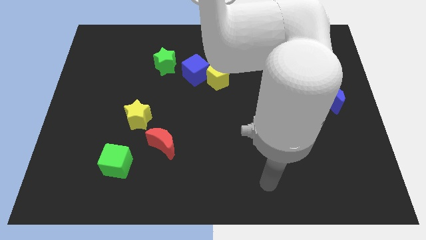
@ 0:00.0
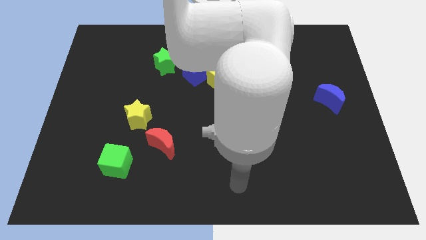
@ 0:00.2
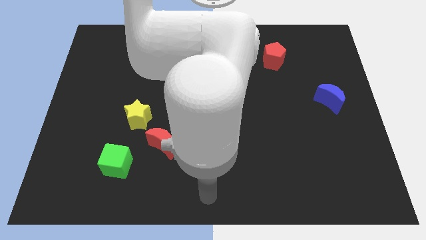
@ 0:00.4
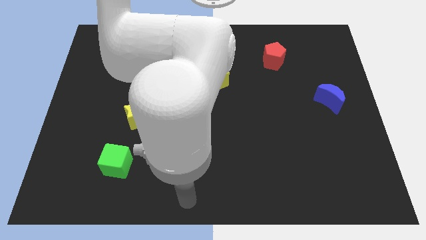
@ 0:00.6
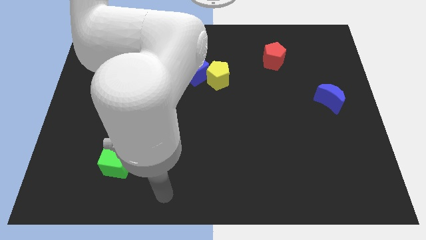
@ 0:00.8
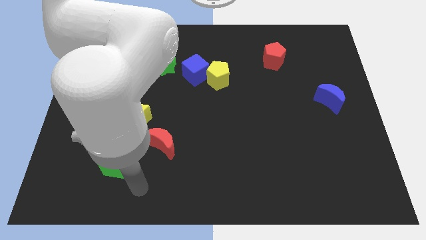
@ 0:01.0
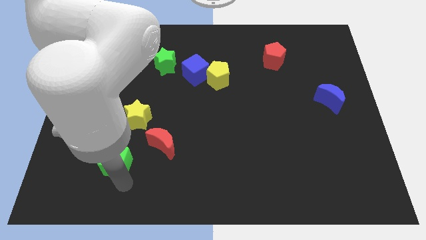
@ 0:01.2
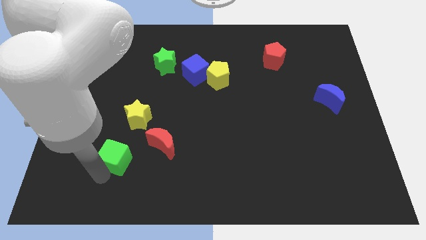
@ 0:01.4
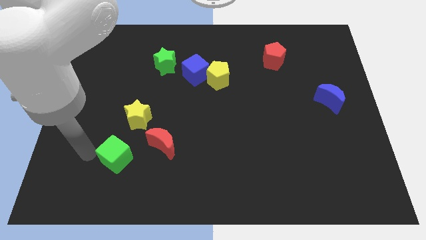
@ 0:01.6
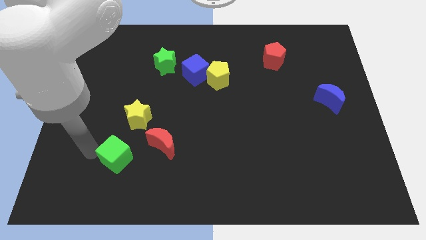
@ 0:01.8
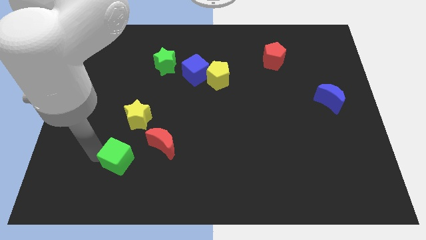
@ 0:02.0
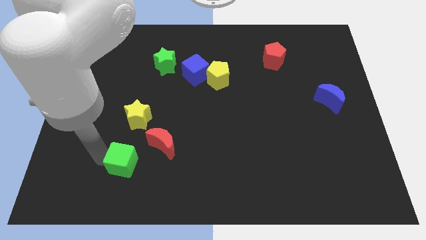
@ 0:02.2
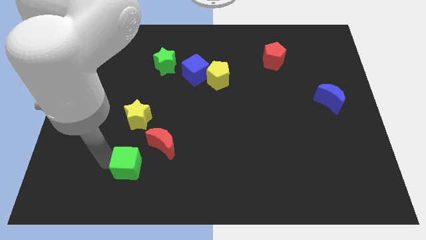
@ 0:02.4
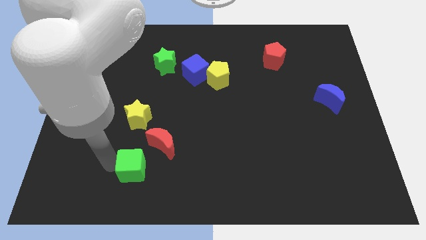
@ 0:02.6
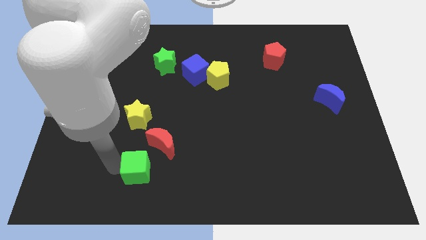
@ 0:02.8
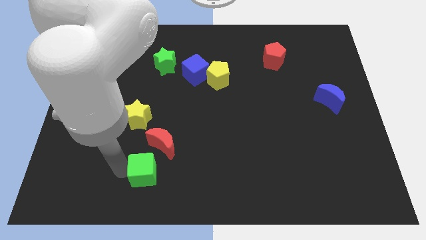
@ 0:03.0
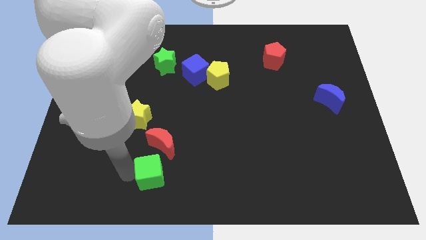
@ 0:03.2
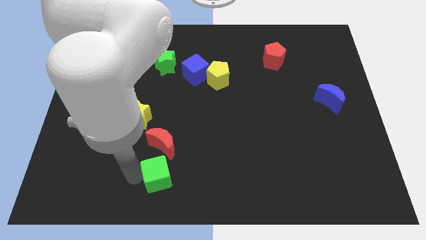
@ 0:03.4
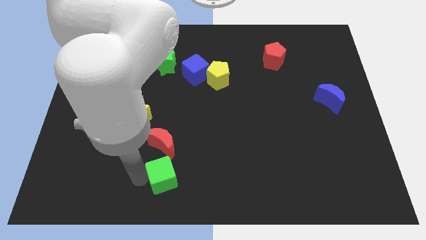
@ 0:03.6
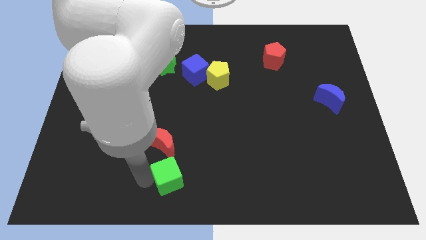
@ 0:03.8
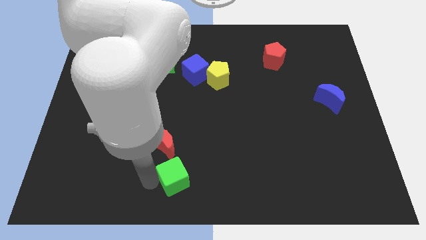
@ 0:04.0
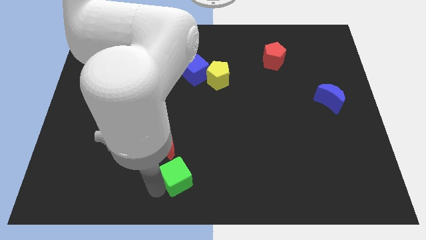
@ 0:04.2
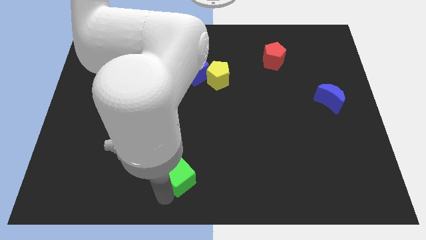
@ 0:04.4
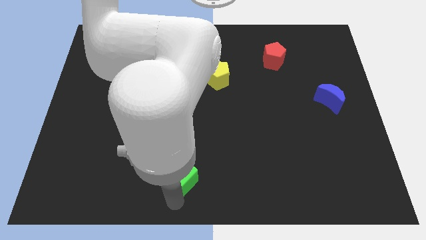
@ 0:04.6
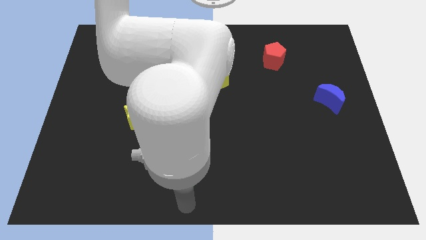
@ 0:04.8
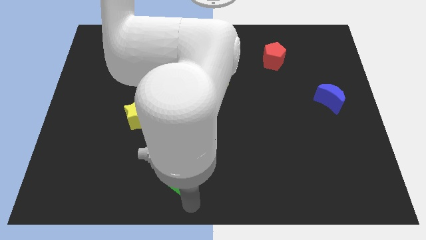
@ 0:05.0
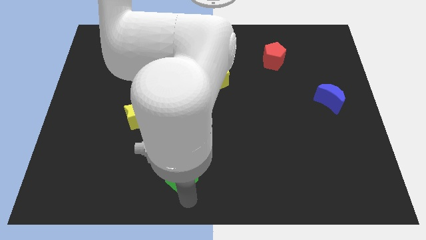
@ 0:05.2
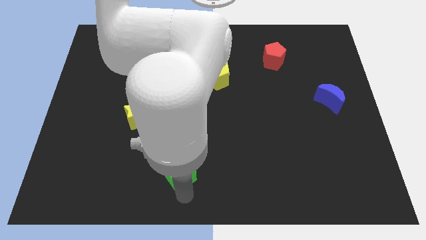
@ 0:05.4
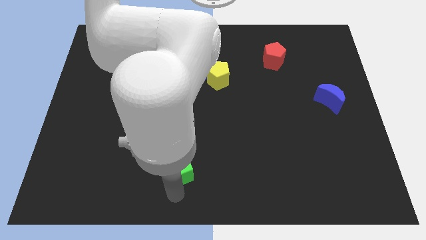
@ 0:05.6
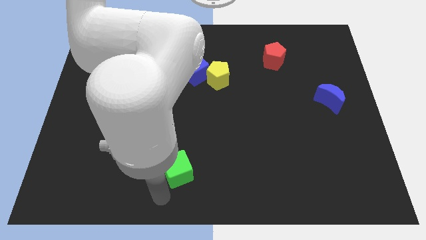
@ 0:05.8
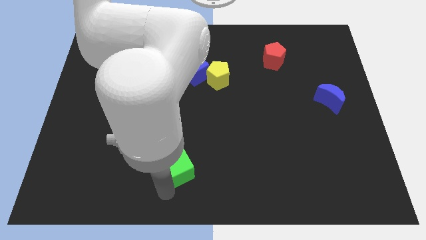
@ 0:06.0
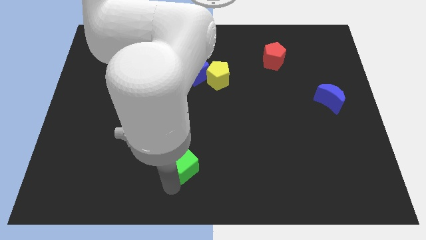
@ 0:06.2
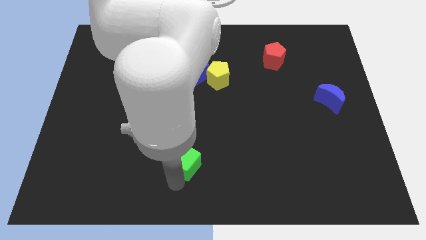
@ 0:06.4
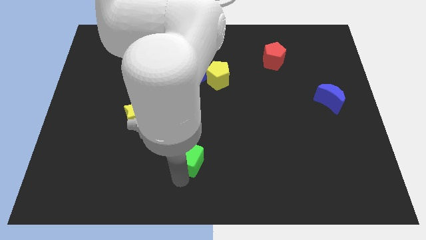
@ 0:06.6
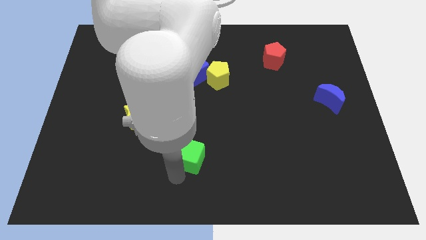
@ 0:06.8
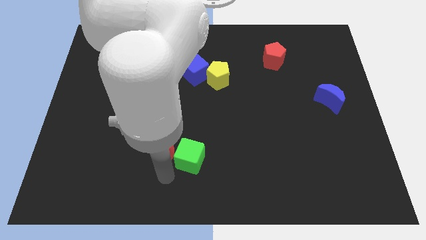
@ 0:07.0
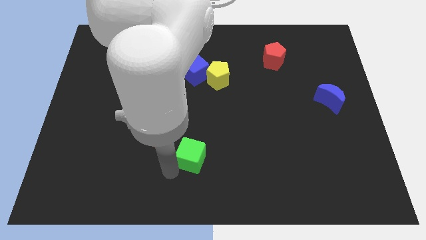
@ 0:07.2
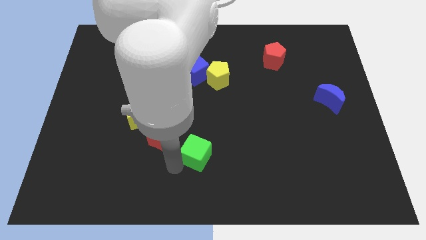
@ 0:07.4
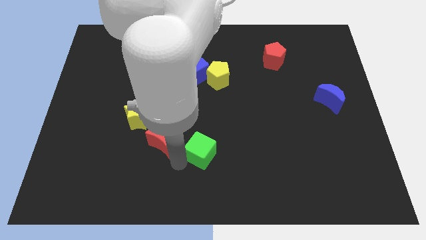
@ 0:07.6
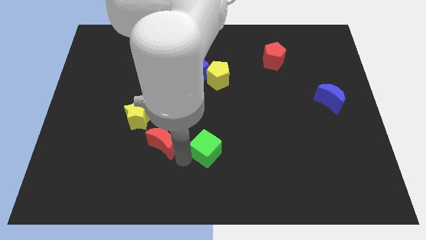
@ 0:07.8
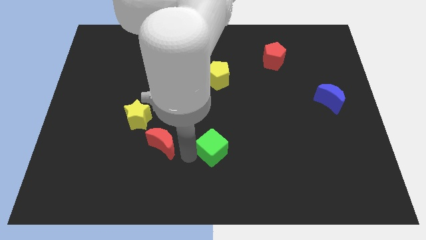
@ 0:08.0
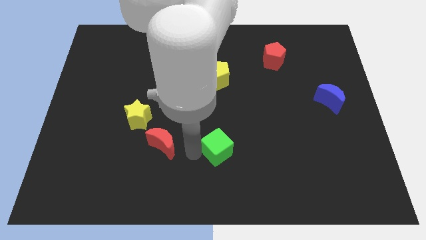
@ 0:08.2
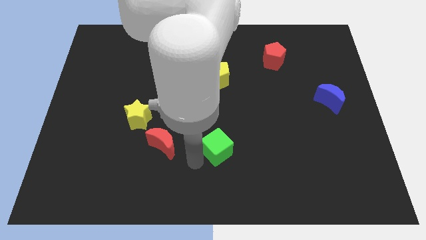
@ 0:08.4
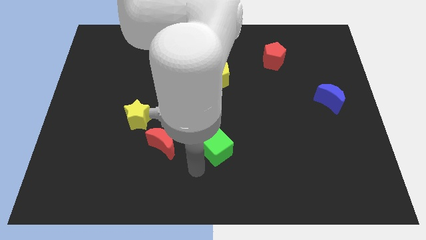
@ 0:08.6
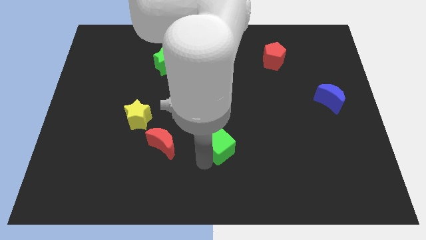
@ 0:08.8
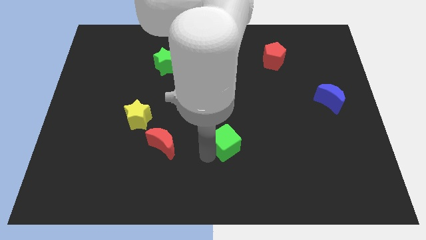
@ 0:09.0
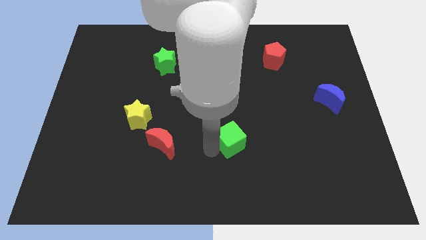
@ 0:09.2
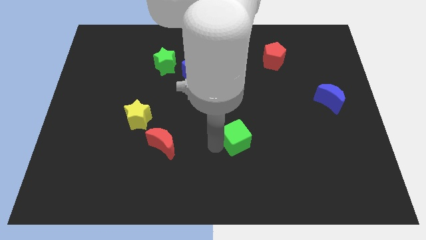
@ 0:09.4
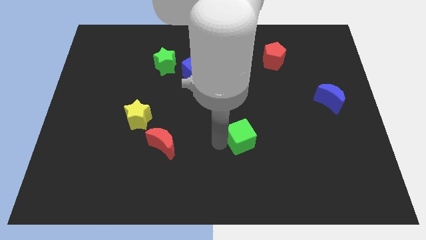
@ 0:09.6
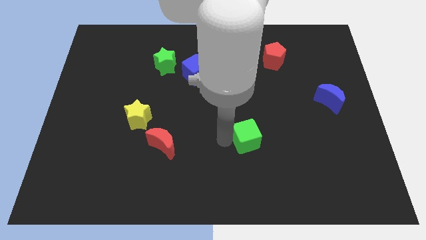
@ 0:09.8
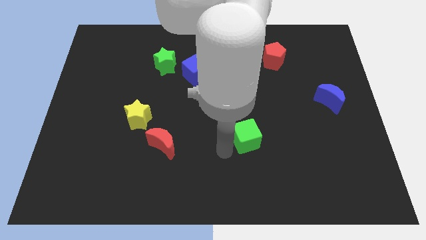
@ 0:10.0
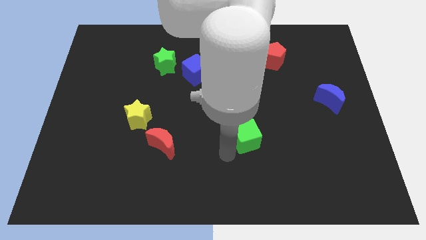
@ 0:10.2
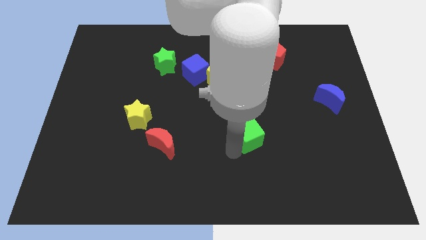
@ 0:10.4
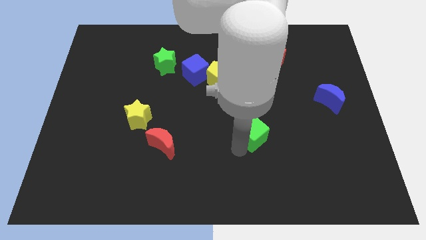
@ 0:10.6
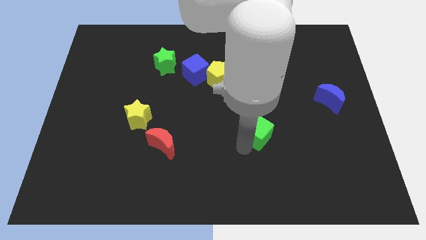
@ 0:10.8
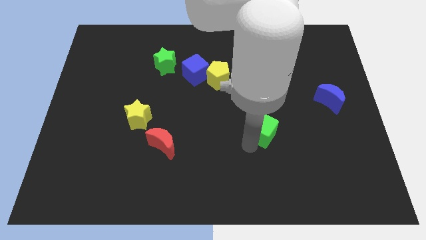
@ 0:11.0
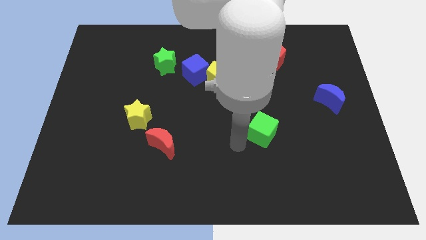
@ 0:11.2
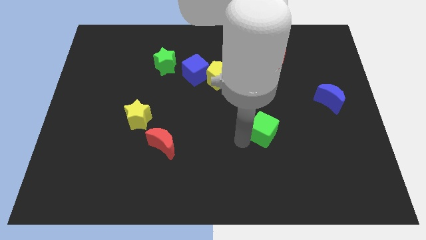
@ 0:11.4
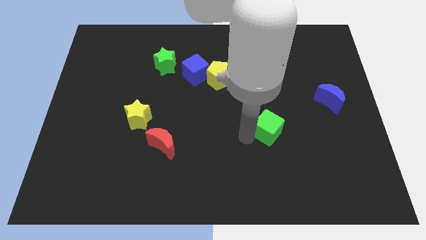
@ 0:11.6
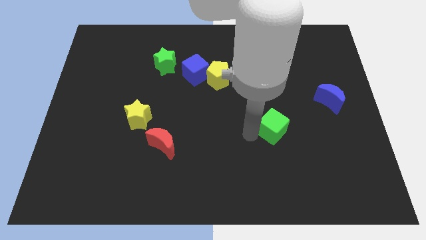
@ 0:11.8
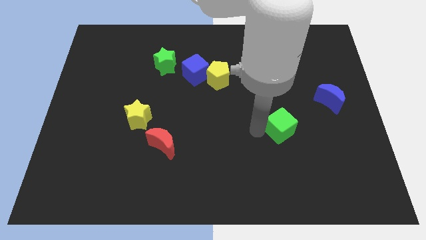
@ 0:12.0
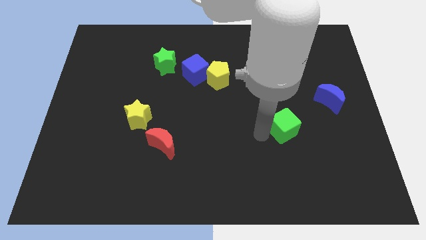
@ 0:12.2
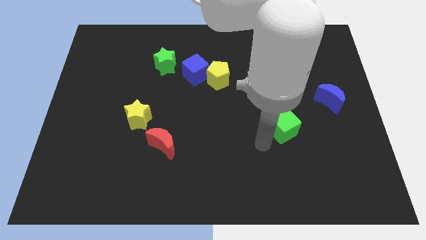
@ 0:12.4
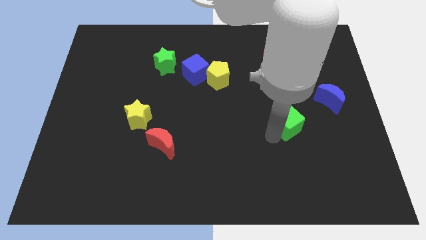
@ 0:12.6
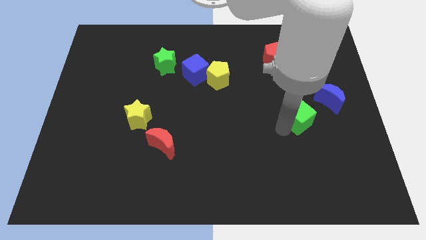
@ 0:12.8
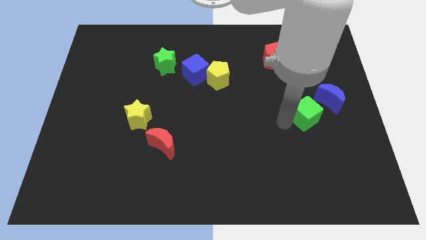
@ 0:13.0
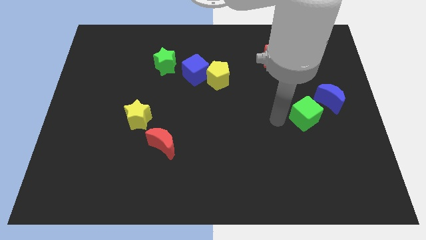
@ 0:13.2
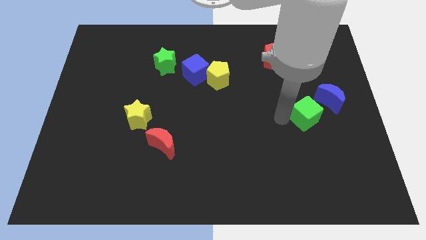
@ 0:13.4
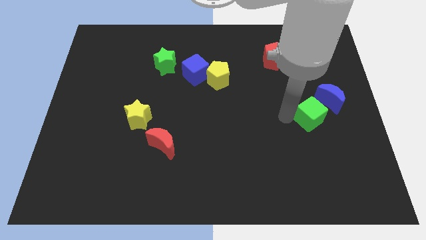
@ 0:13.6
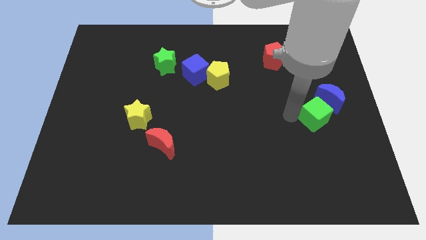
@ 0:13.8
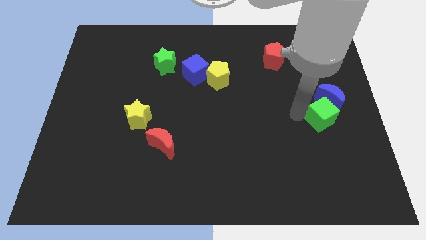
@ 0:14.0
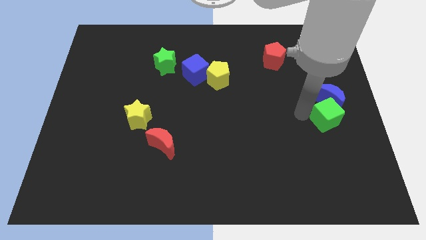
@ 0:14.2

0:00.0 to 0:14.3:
move the green cube to the right side of the board
